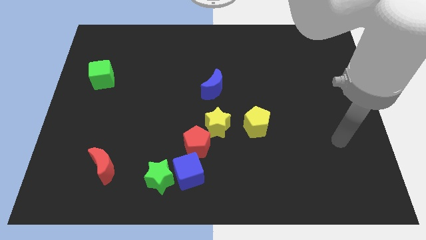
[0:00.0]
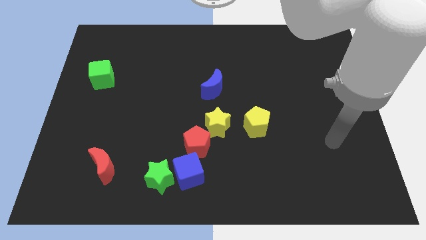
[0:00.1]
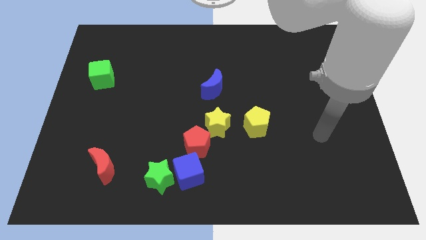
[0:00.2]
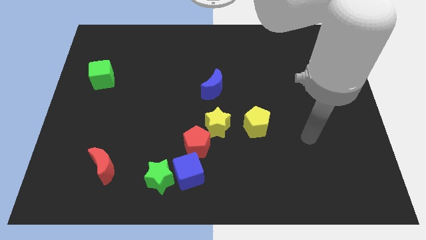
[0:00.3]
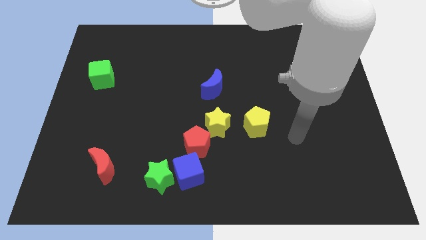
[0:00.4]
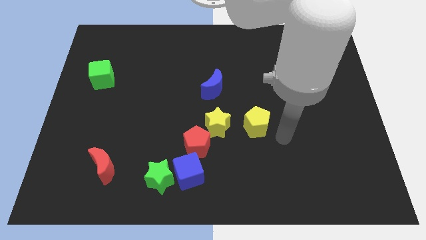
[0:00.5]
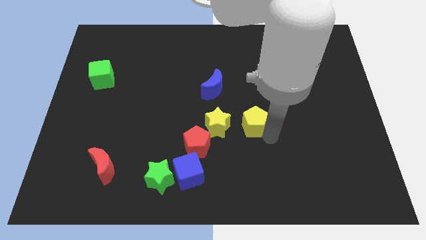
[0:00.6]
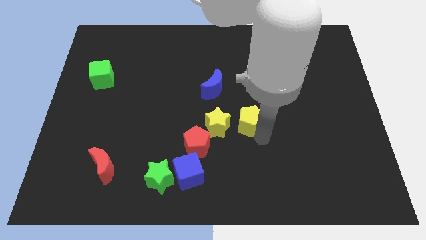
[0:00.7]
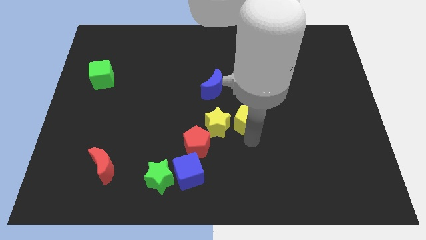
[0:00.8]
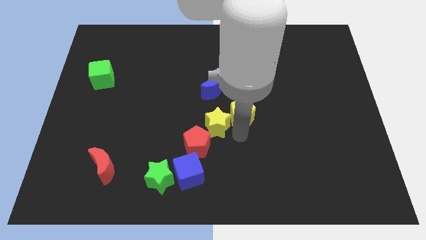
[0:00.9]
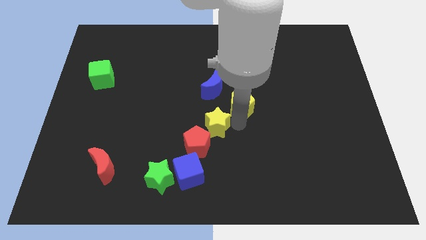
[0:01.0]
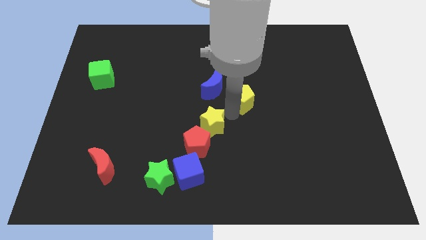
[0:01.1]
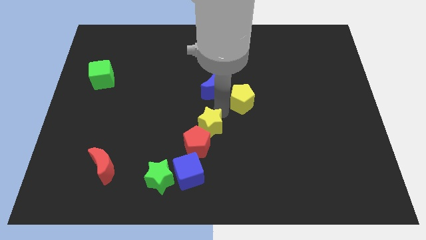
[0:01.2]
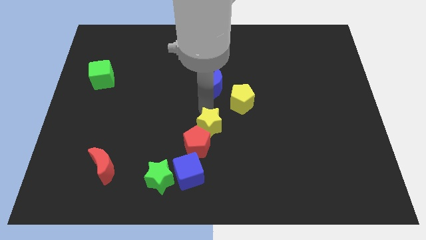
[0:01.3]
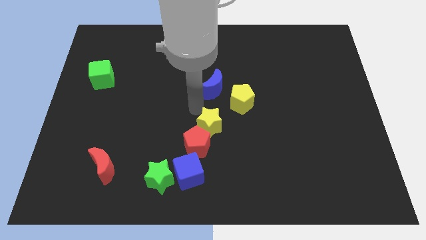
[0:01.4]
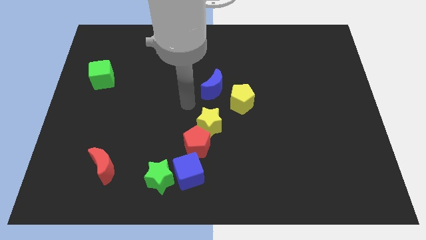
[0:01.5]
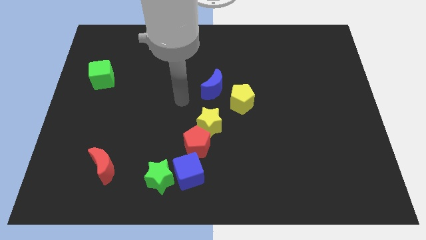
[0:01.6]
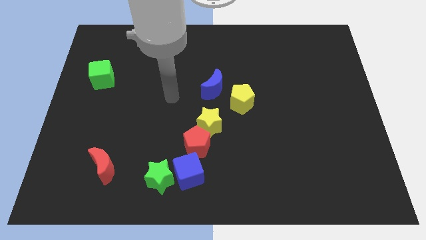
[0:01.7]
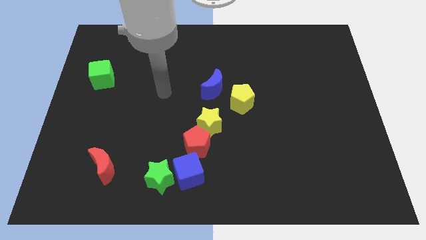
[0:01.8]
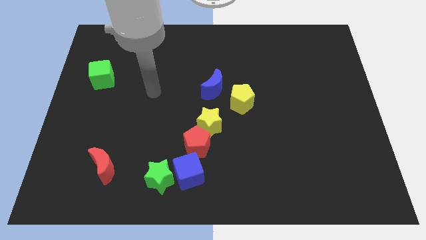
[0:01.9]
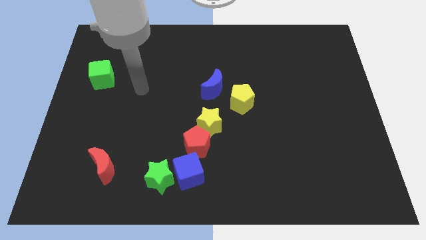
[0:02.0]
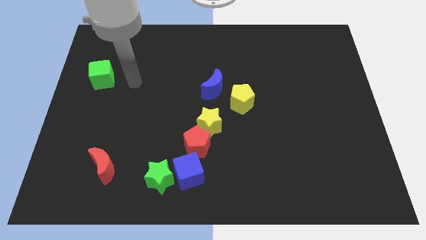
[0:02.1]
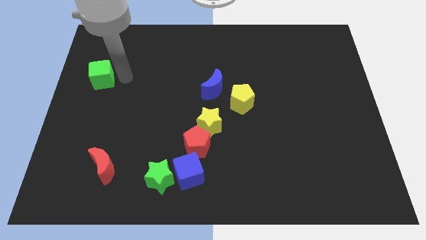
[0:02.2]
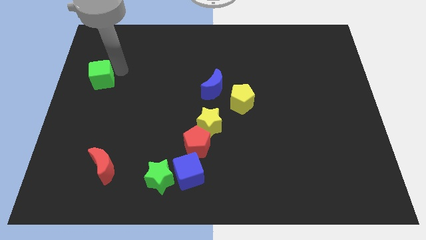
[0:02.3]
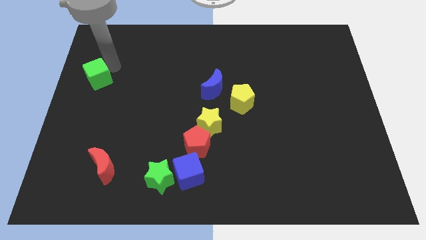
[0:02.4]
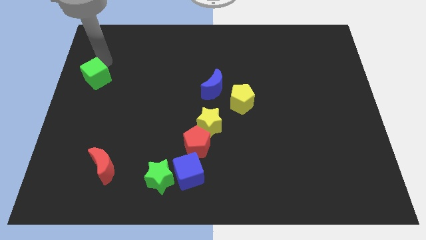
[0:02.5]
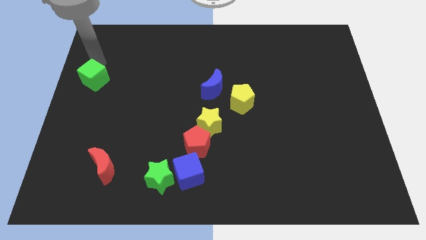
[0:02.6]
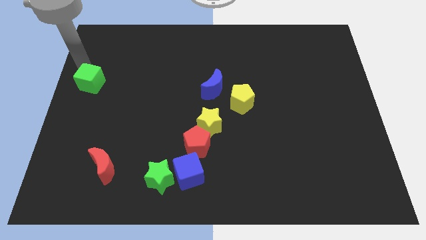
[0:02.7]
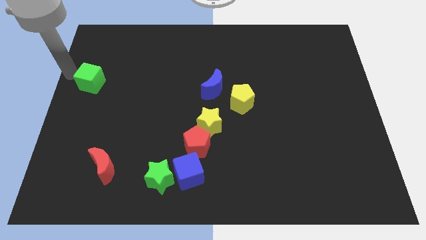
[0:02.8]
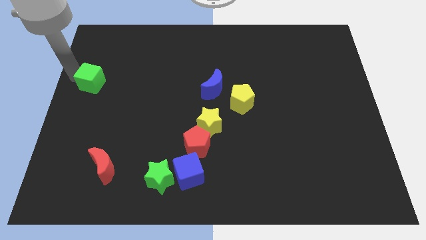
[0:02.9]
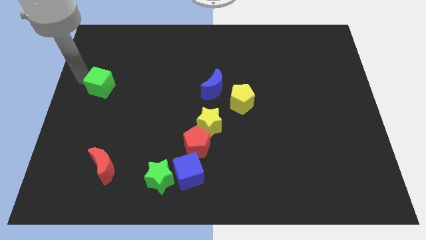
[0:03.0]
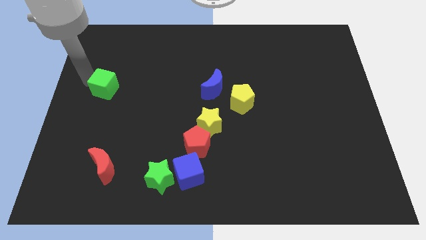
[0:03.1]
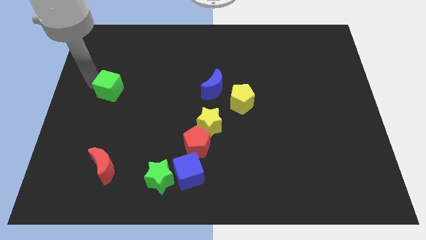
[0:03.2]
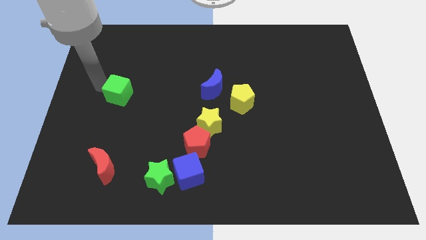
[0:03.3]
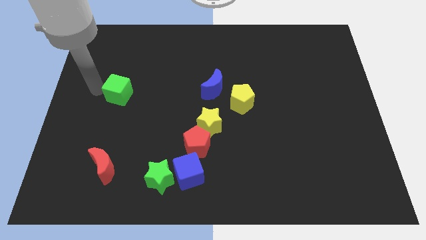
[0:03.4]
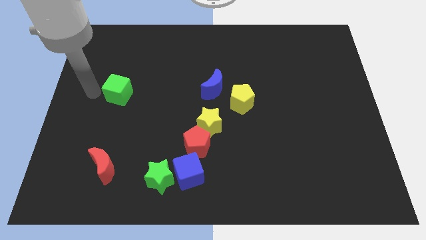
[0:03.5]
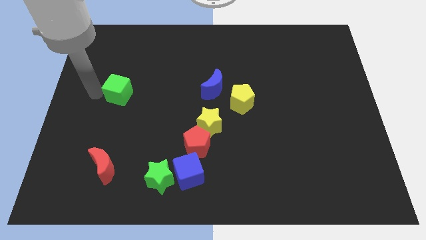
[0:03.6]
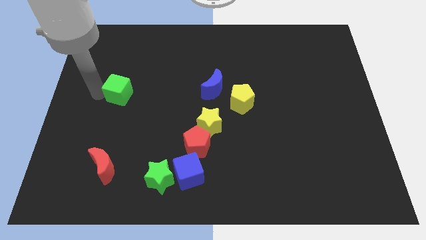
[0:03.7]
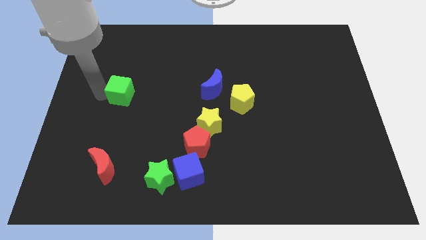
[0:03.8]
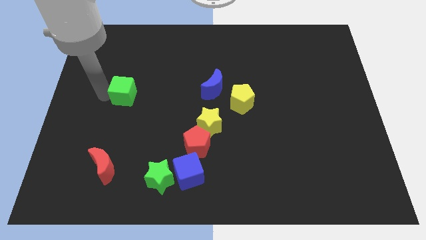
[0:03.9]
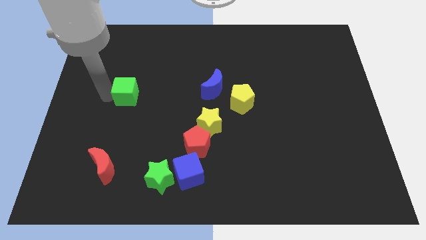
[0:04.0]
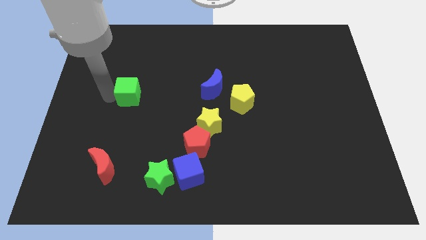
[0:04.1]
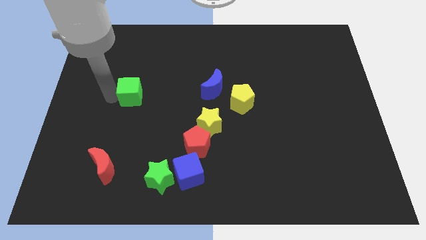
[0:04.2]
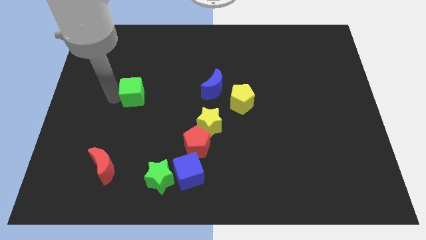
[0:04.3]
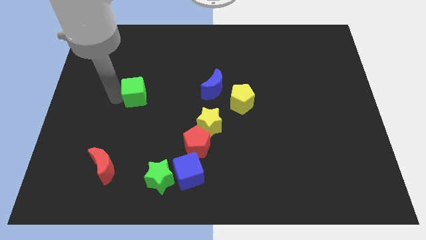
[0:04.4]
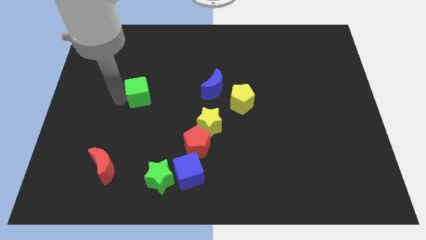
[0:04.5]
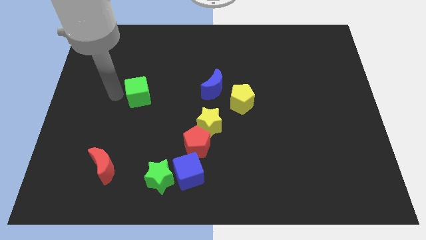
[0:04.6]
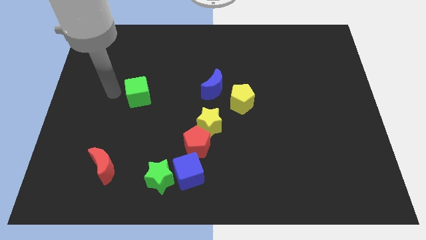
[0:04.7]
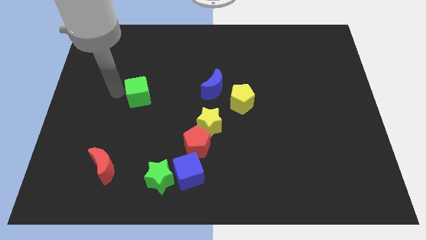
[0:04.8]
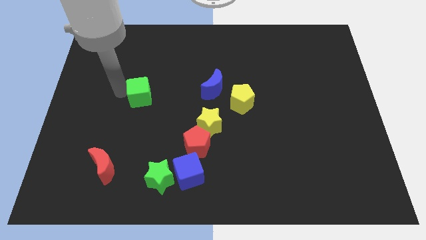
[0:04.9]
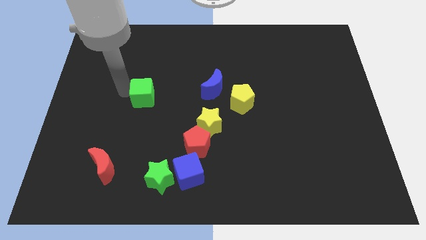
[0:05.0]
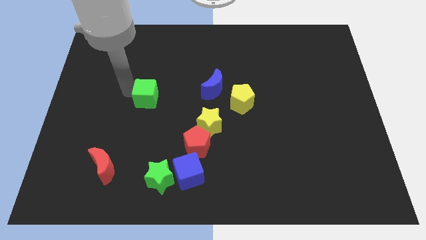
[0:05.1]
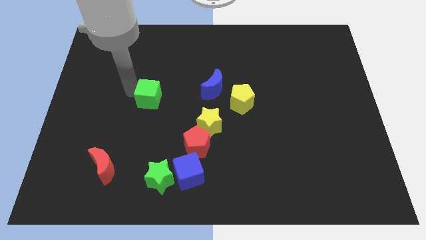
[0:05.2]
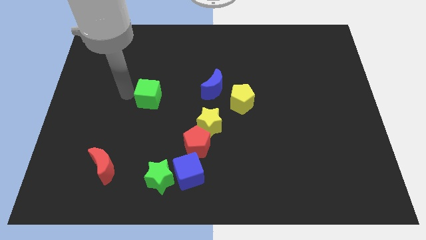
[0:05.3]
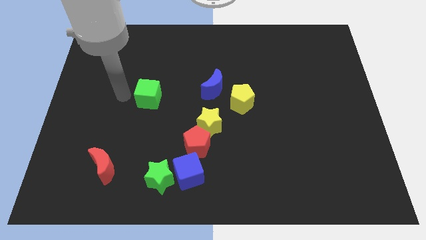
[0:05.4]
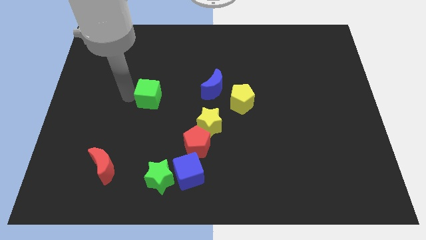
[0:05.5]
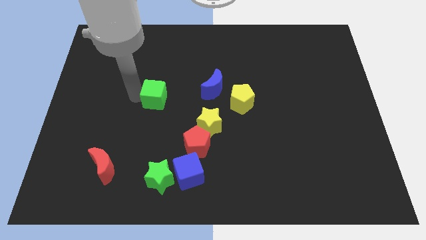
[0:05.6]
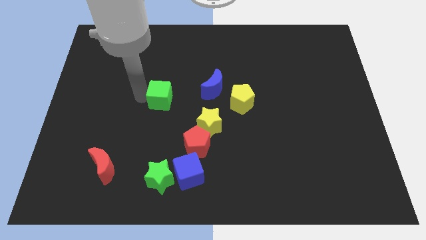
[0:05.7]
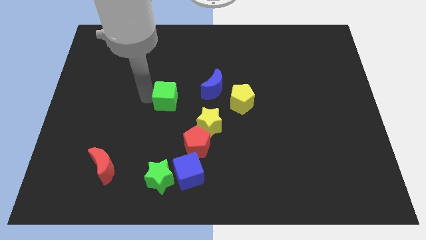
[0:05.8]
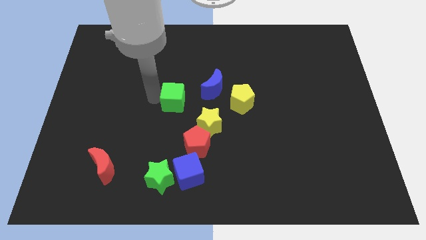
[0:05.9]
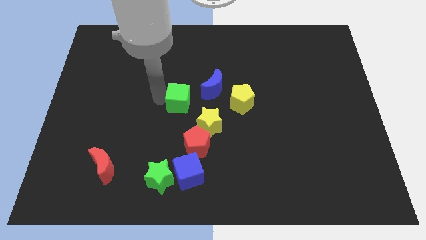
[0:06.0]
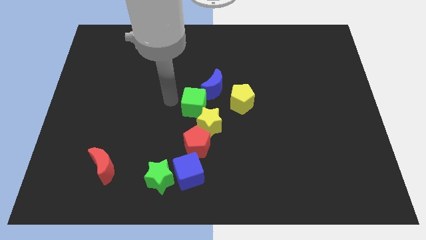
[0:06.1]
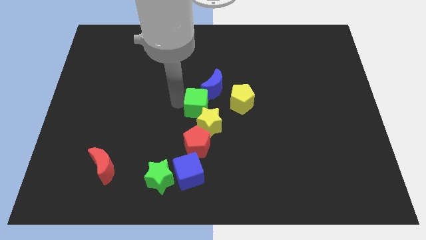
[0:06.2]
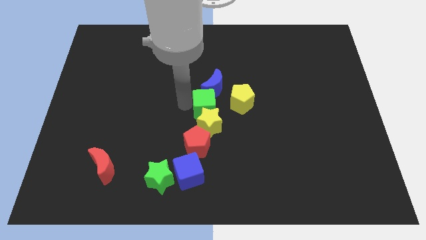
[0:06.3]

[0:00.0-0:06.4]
slide the green cube to the top right side of the yellow star
